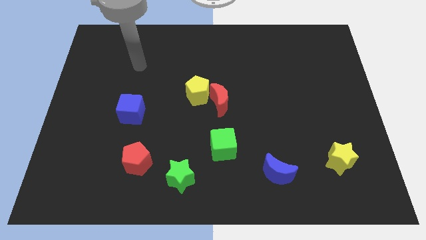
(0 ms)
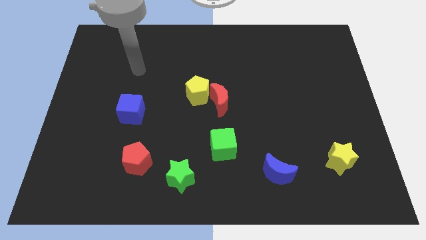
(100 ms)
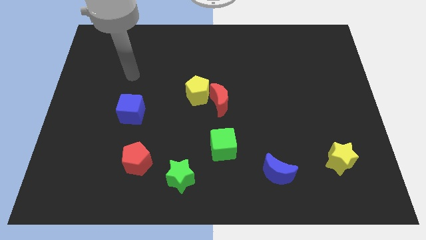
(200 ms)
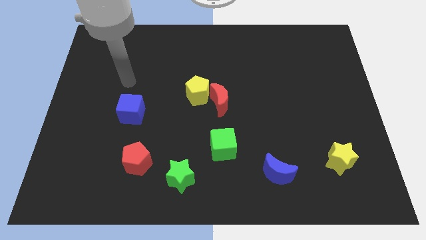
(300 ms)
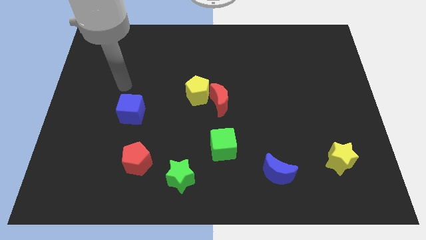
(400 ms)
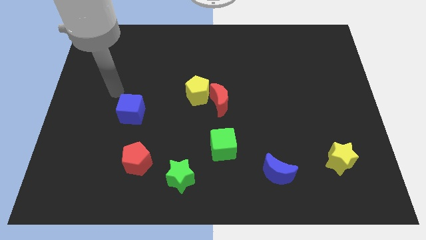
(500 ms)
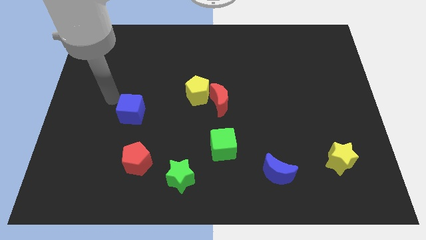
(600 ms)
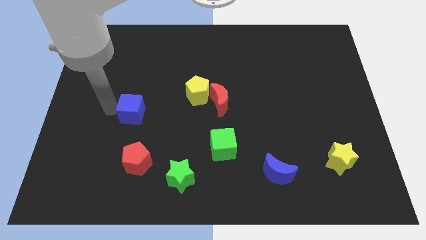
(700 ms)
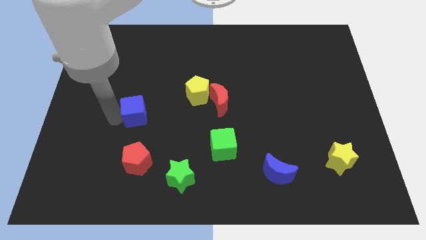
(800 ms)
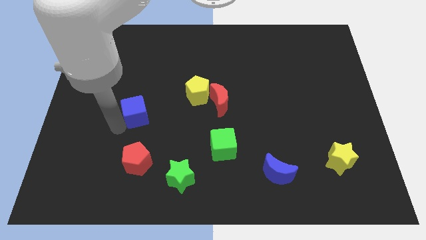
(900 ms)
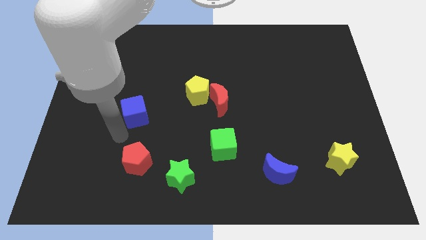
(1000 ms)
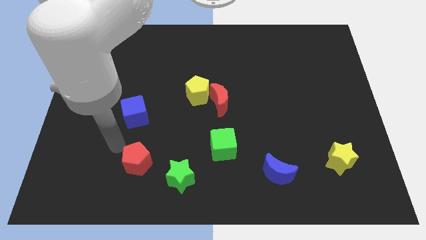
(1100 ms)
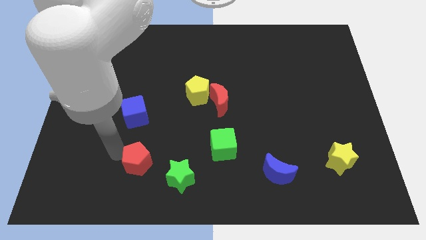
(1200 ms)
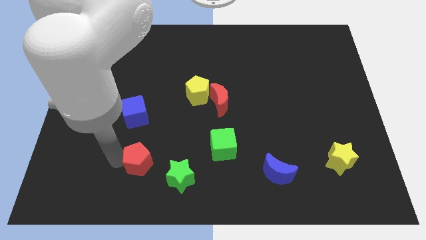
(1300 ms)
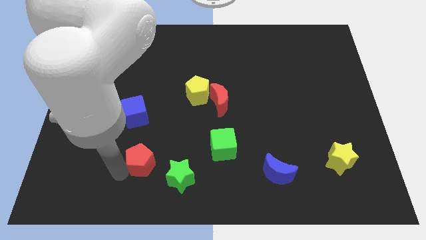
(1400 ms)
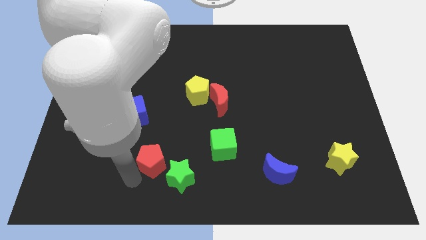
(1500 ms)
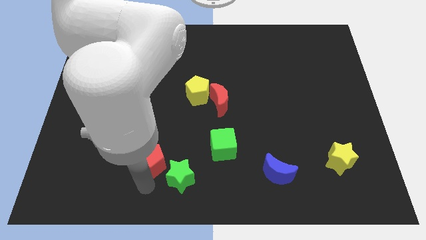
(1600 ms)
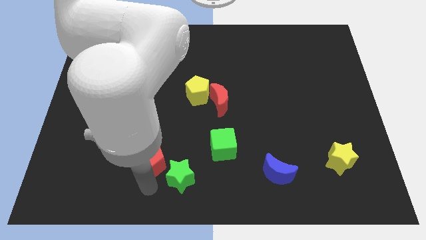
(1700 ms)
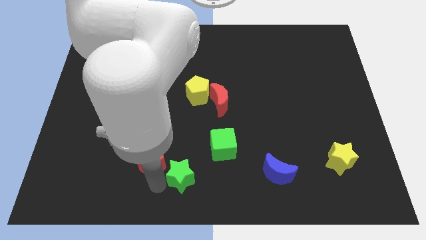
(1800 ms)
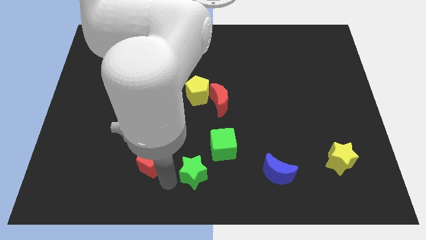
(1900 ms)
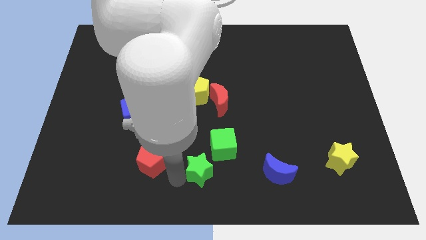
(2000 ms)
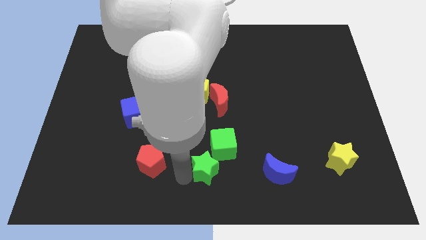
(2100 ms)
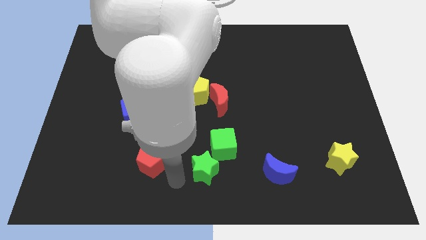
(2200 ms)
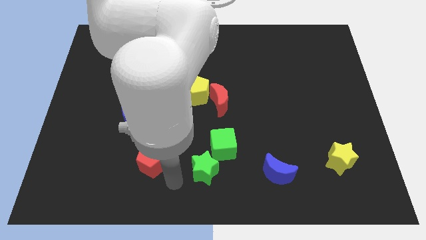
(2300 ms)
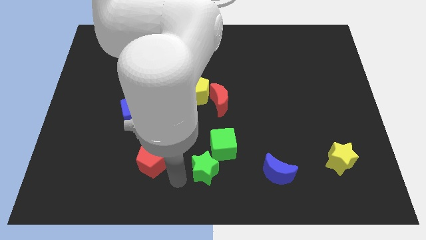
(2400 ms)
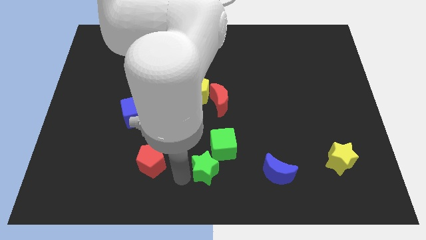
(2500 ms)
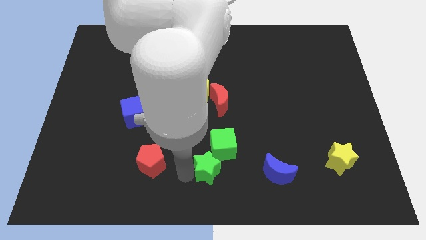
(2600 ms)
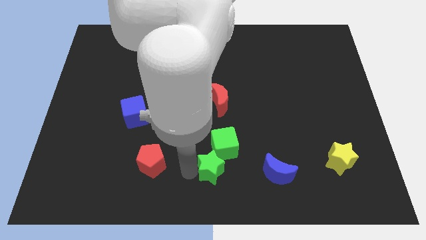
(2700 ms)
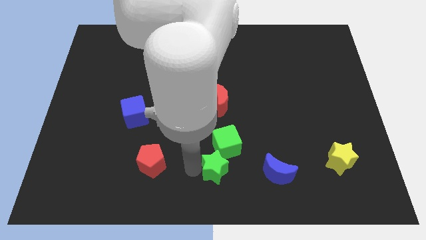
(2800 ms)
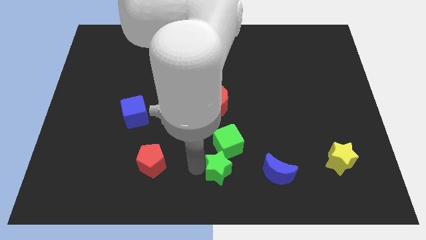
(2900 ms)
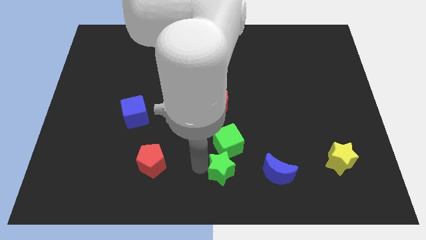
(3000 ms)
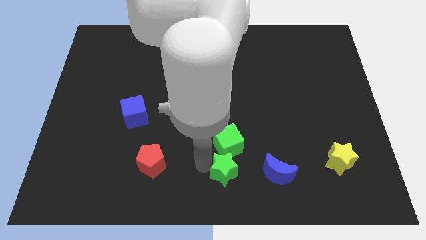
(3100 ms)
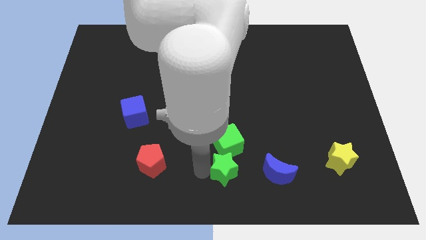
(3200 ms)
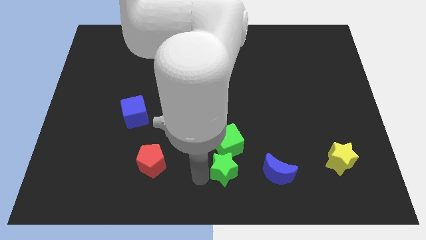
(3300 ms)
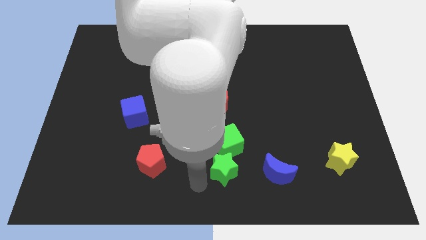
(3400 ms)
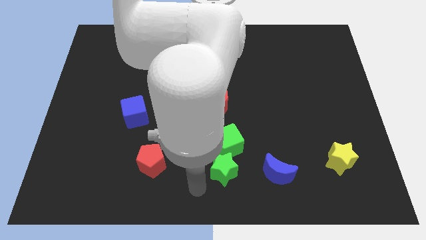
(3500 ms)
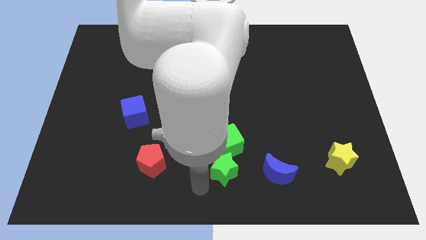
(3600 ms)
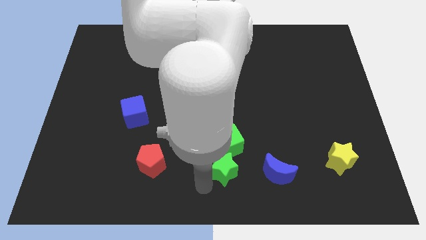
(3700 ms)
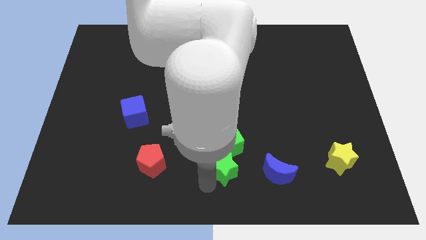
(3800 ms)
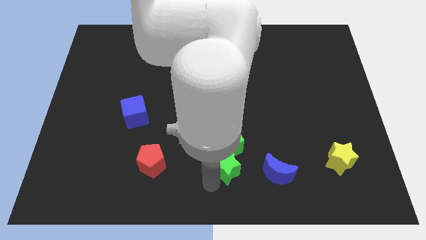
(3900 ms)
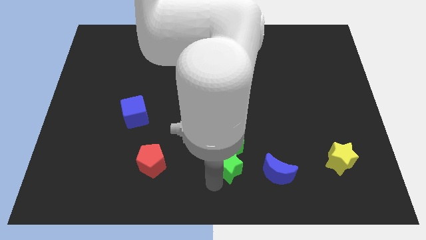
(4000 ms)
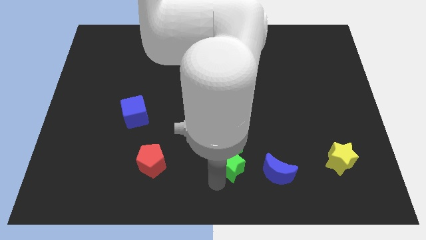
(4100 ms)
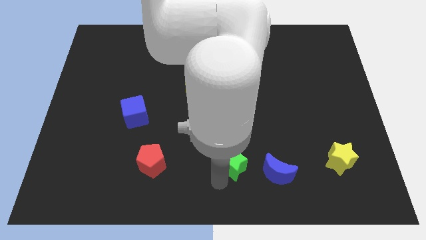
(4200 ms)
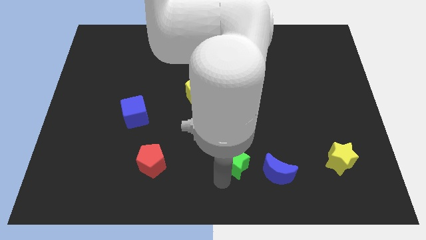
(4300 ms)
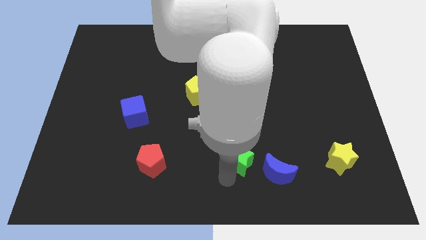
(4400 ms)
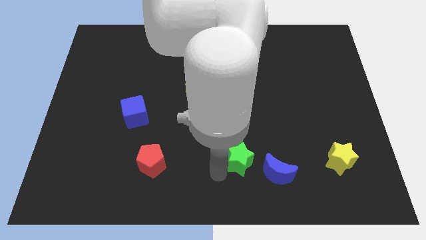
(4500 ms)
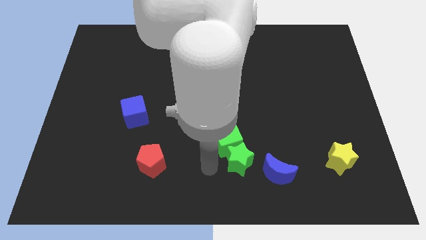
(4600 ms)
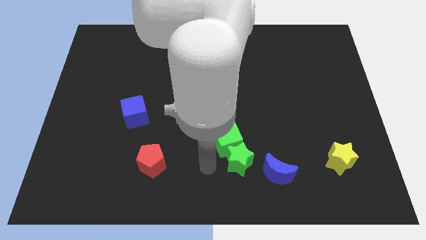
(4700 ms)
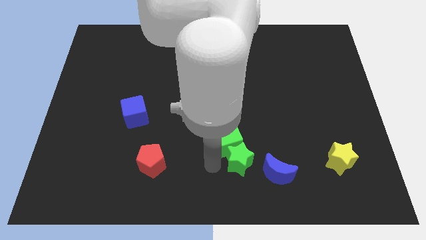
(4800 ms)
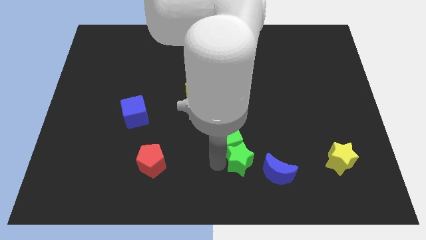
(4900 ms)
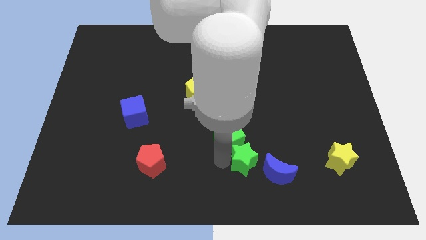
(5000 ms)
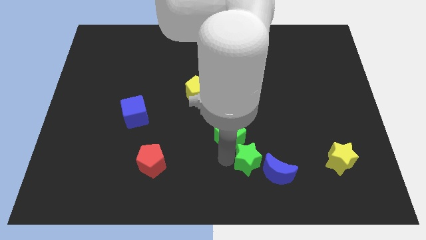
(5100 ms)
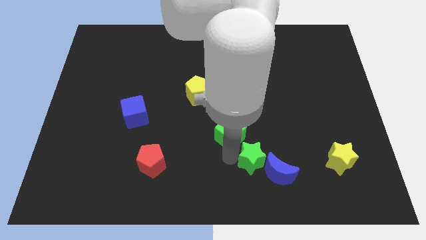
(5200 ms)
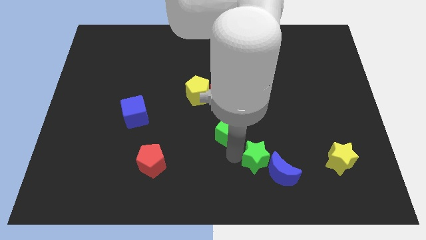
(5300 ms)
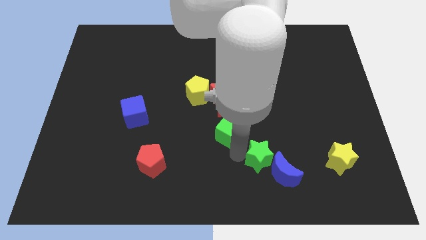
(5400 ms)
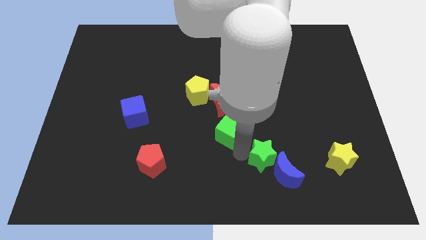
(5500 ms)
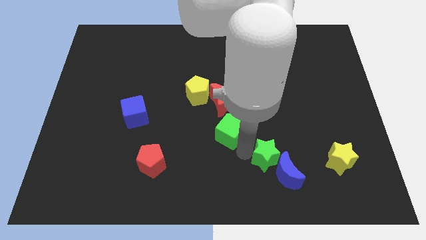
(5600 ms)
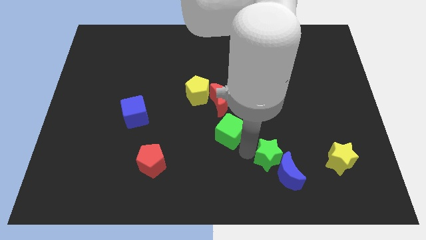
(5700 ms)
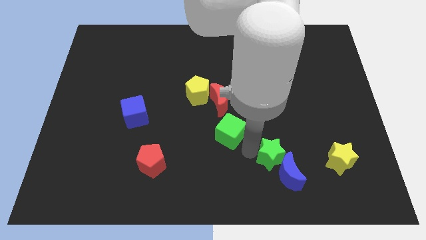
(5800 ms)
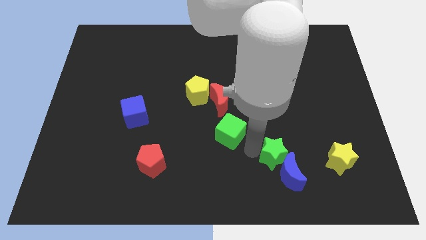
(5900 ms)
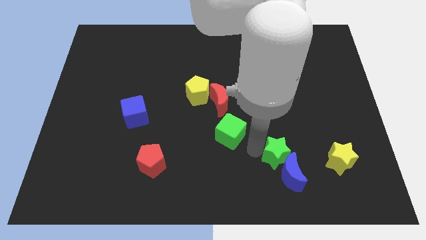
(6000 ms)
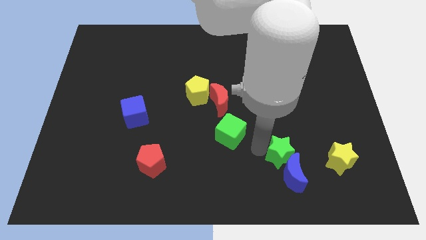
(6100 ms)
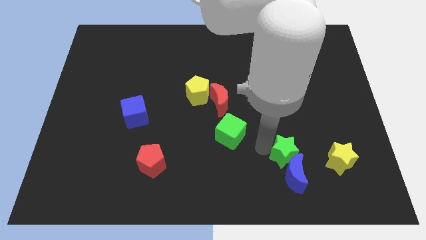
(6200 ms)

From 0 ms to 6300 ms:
slide the green star right

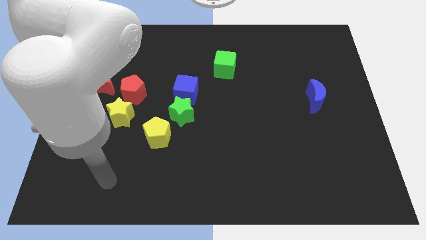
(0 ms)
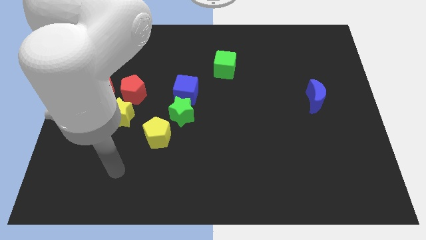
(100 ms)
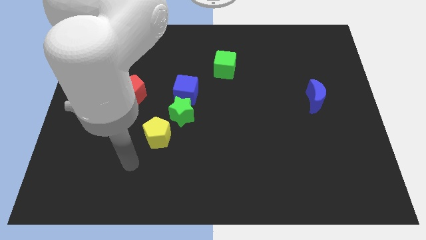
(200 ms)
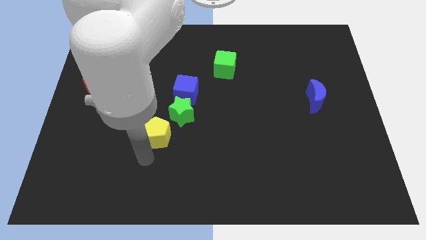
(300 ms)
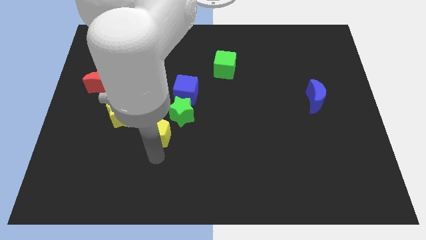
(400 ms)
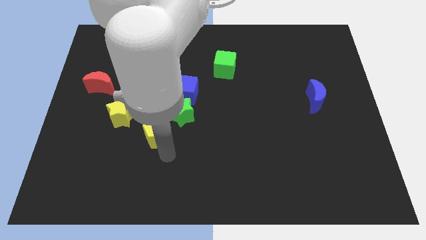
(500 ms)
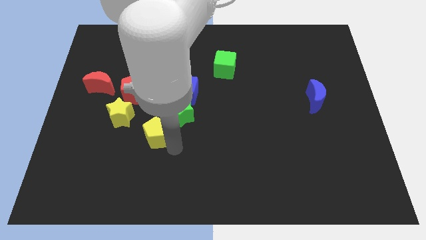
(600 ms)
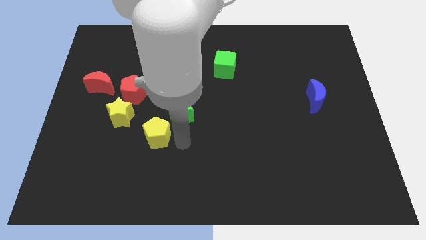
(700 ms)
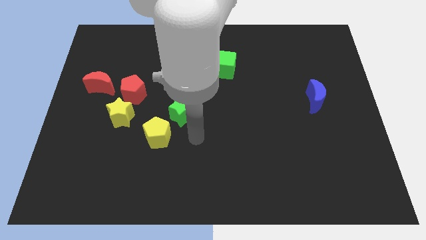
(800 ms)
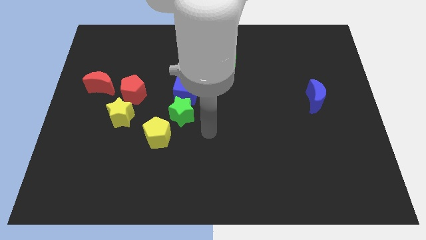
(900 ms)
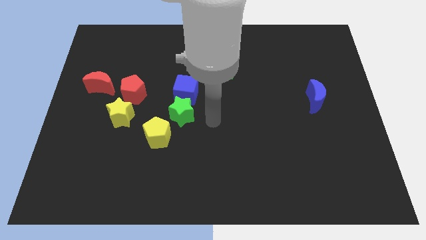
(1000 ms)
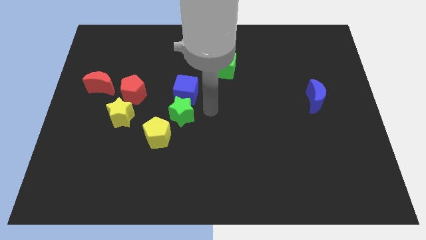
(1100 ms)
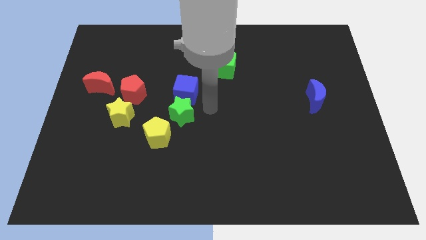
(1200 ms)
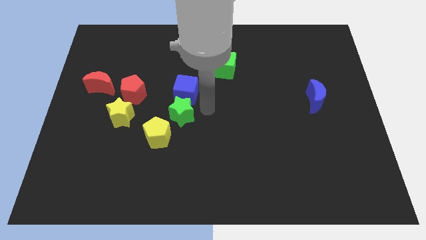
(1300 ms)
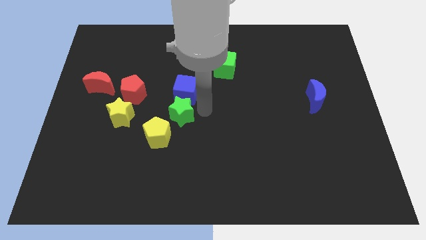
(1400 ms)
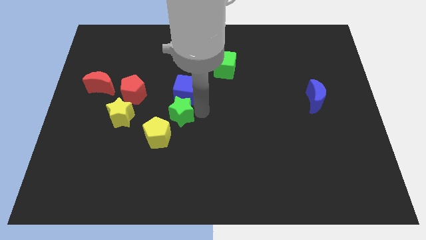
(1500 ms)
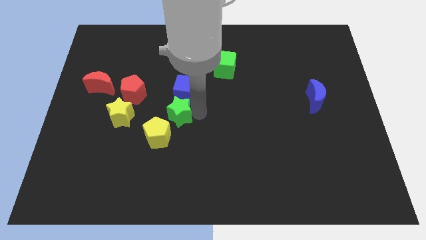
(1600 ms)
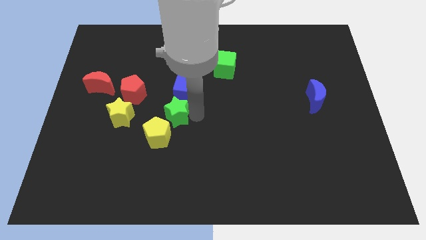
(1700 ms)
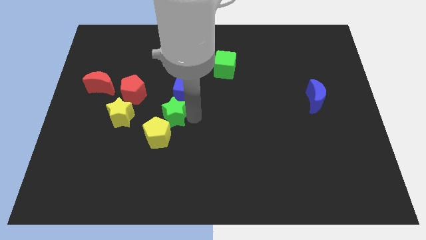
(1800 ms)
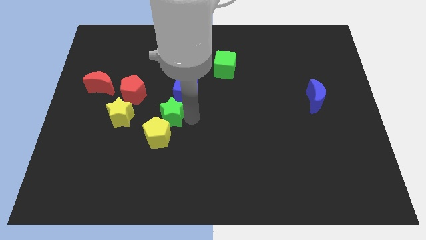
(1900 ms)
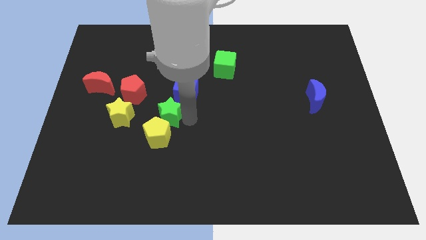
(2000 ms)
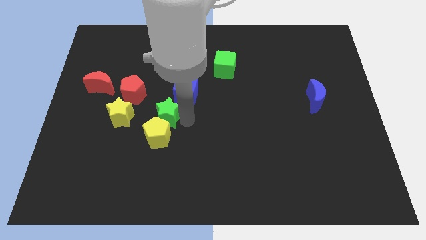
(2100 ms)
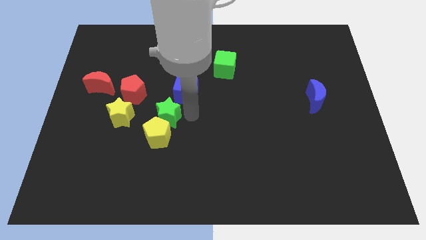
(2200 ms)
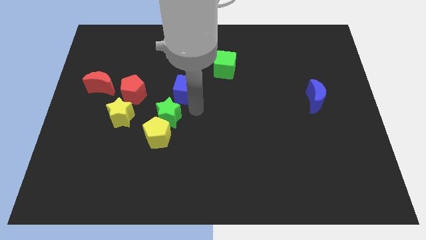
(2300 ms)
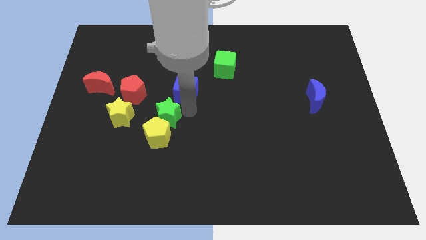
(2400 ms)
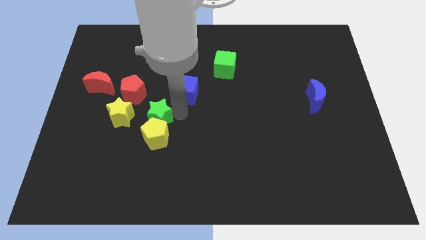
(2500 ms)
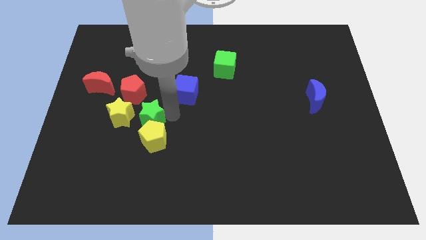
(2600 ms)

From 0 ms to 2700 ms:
slightly move the green star left
